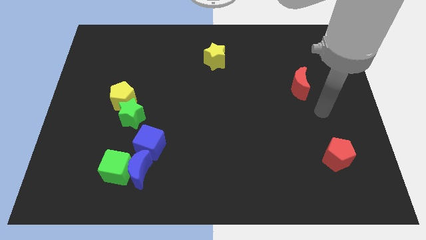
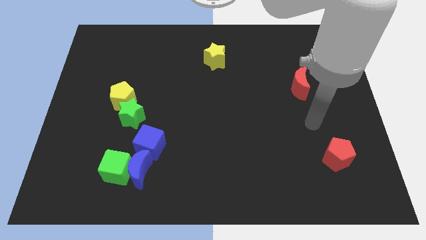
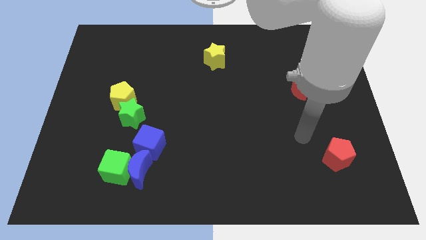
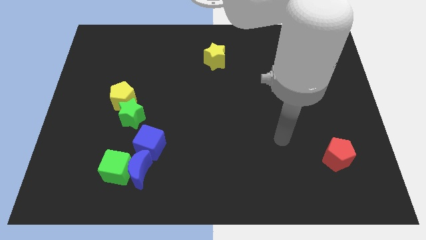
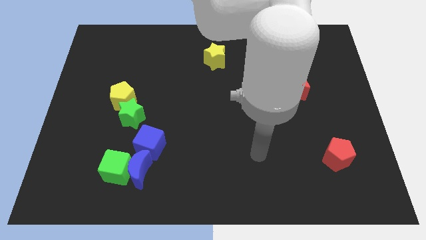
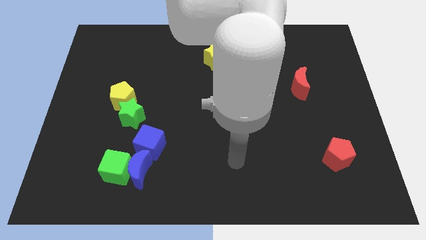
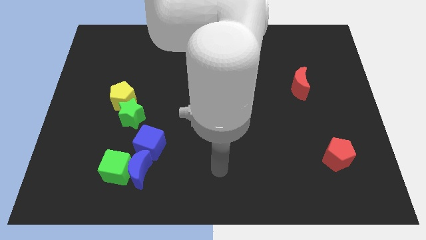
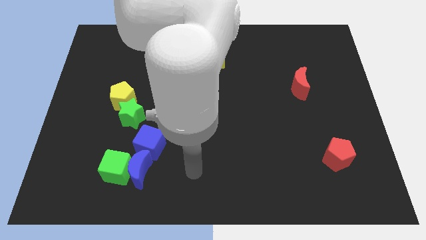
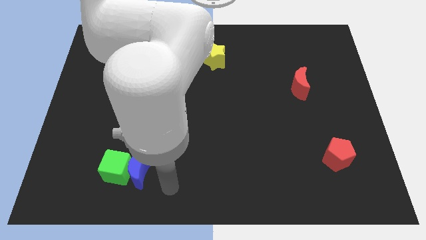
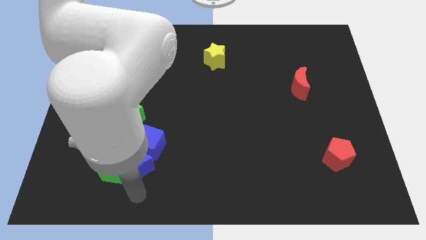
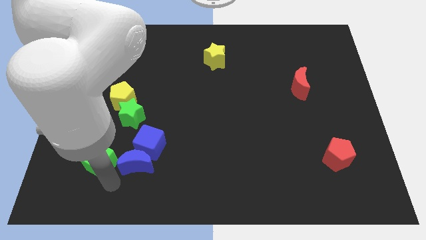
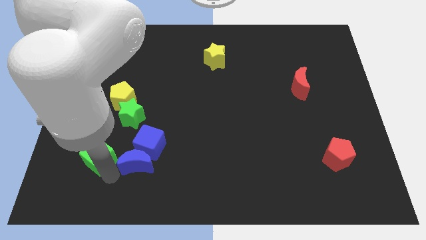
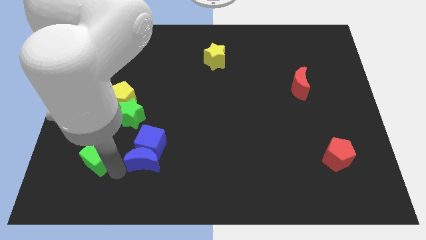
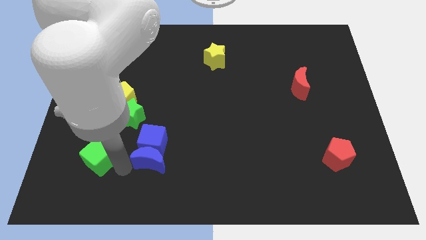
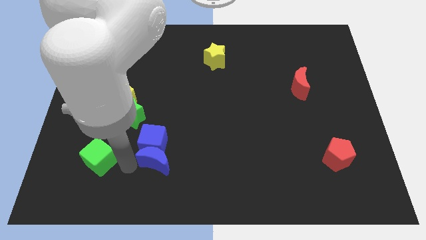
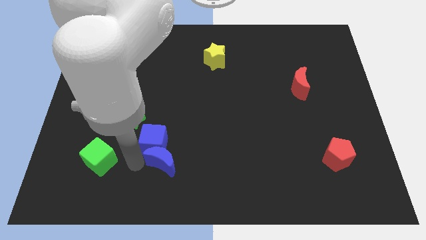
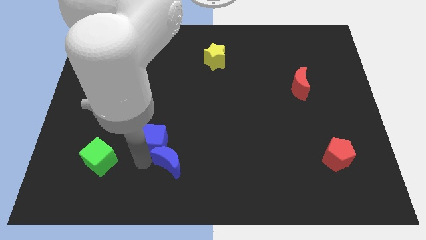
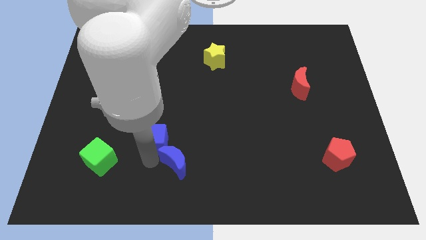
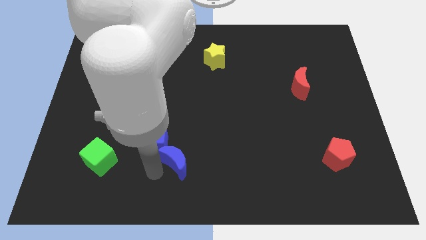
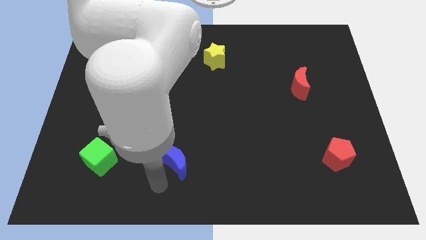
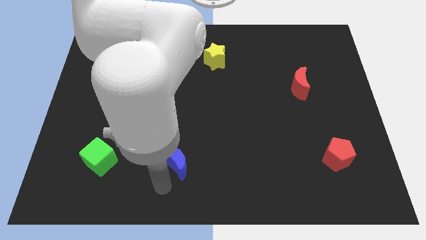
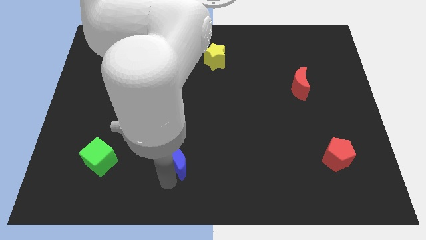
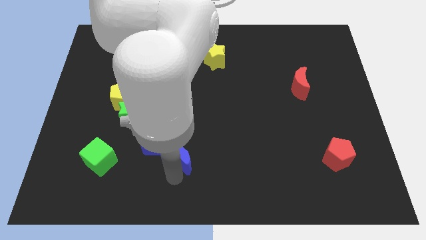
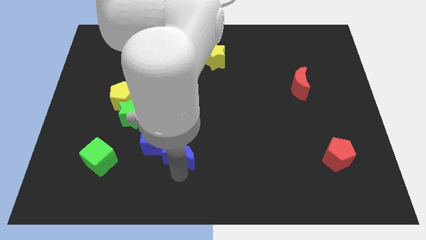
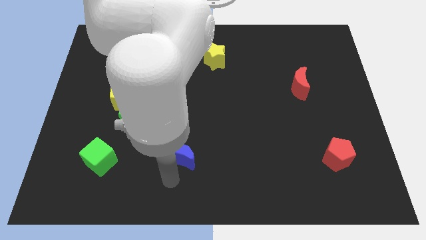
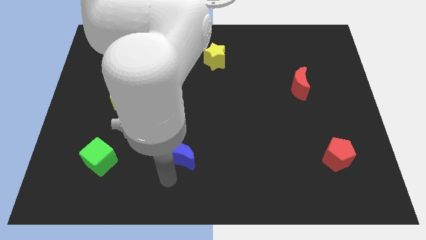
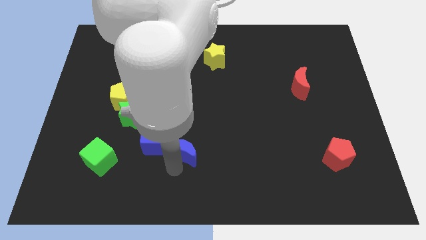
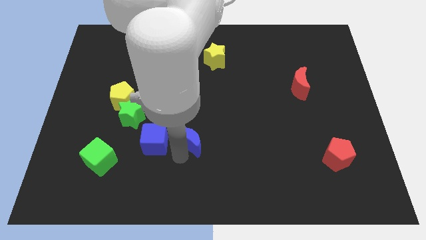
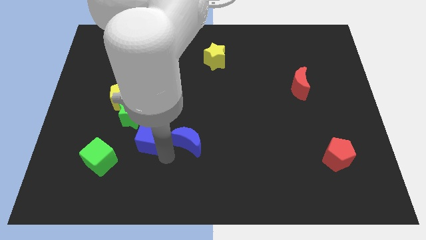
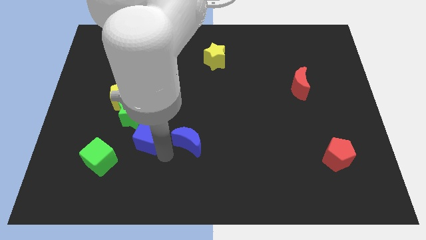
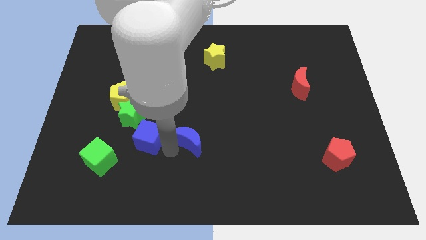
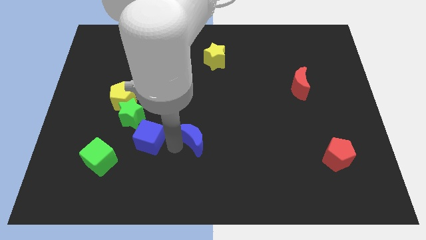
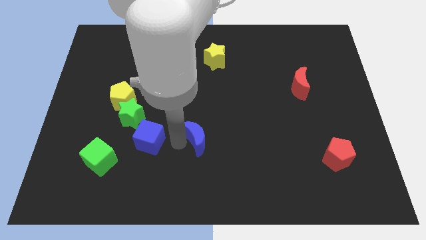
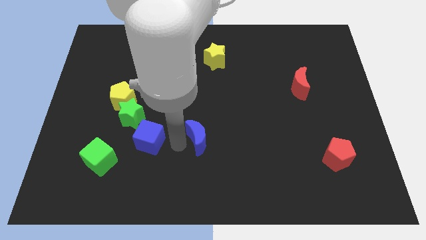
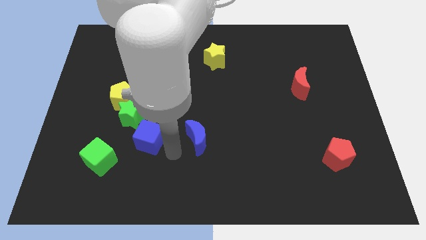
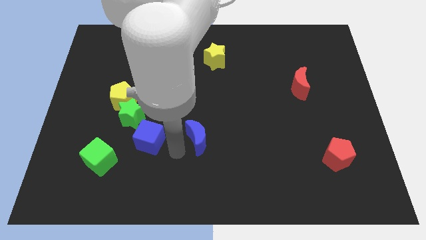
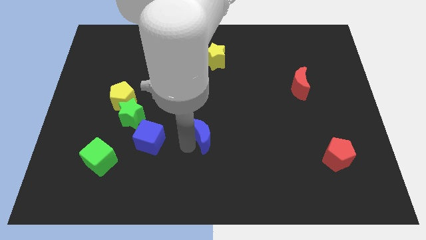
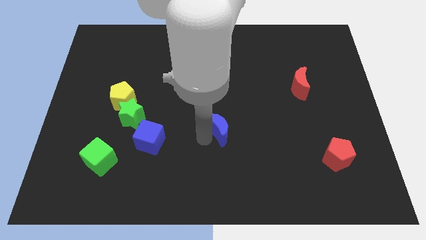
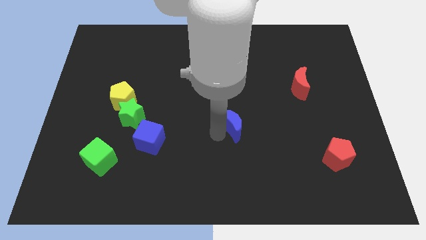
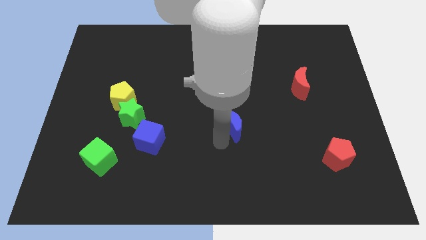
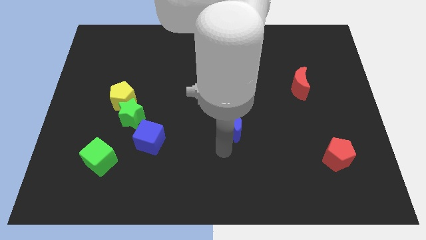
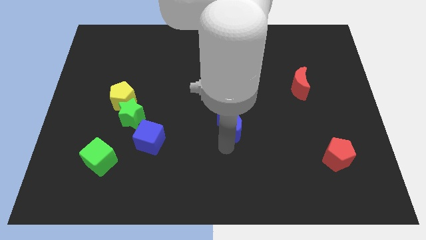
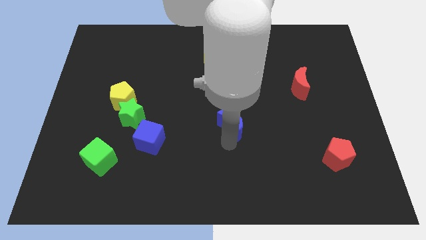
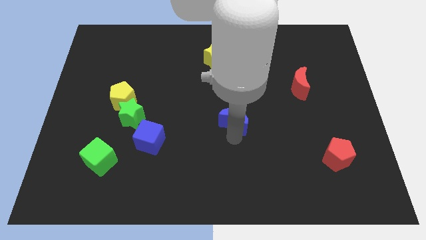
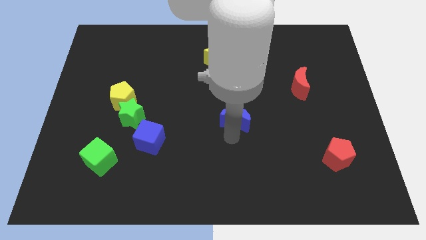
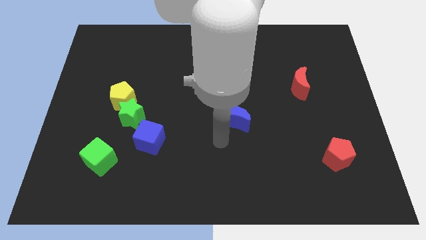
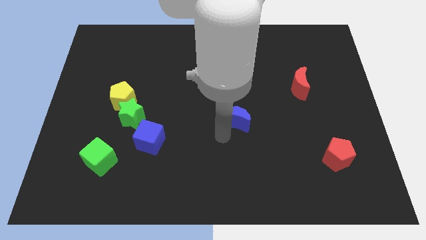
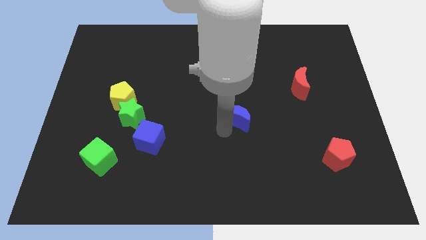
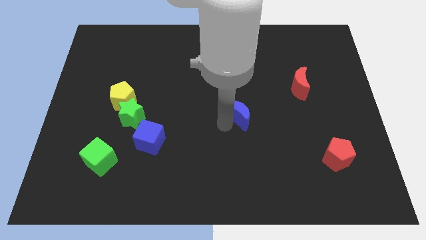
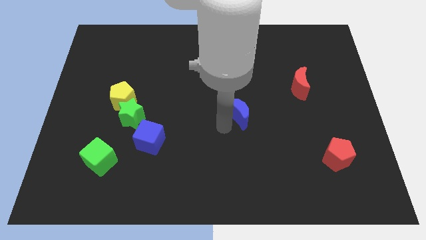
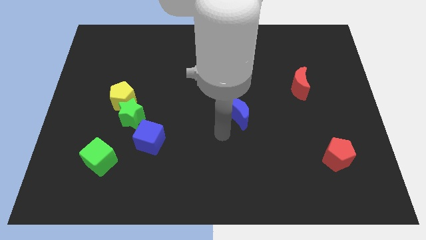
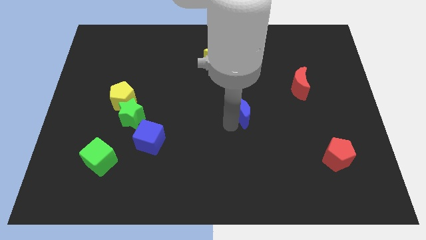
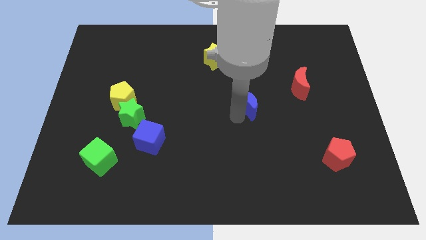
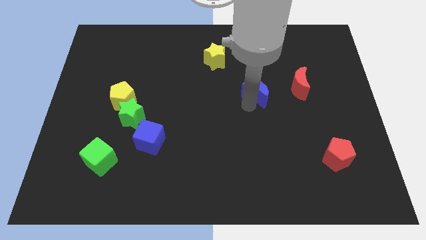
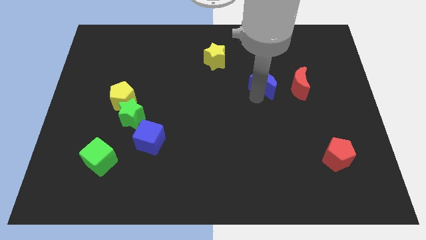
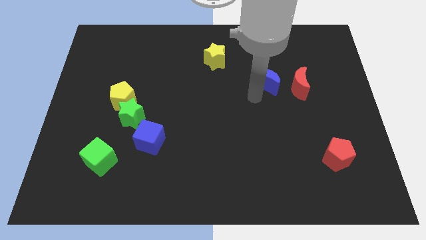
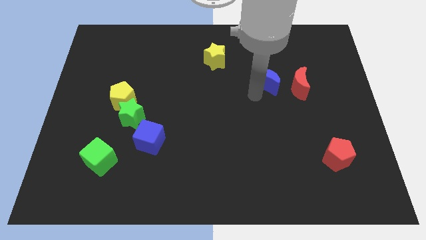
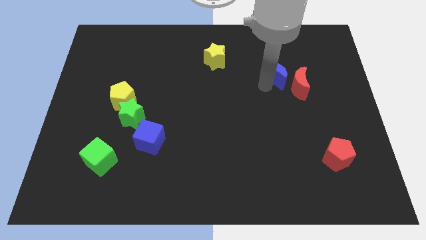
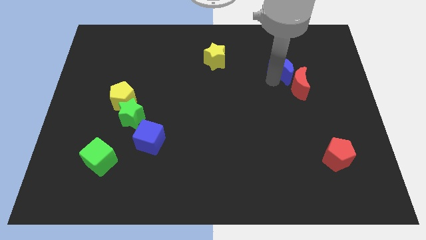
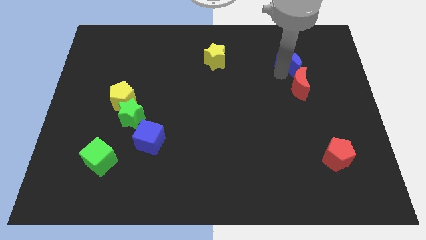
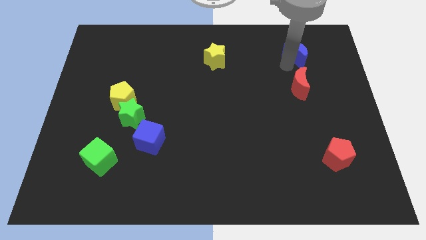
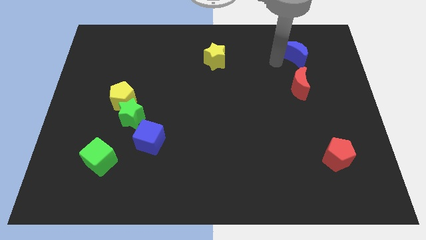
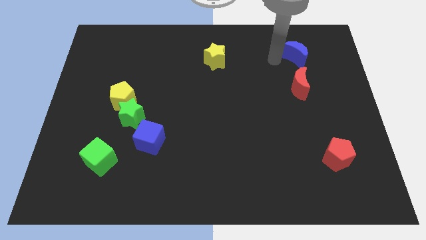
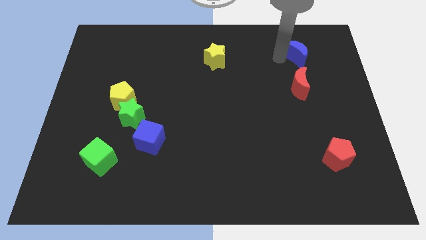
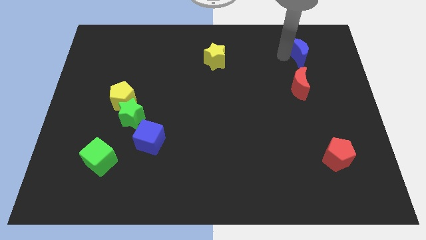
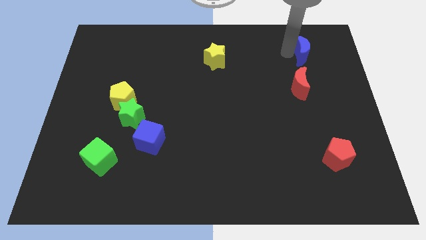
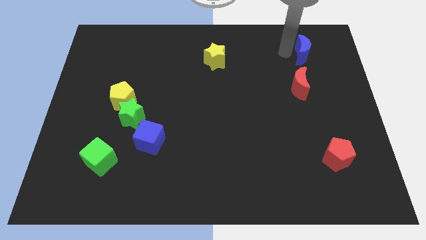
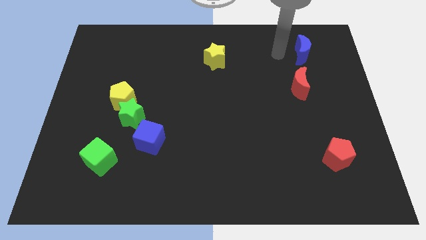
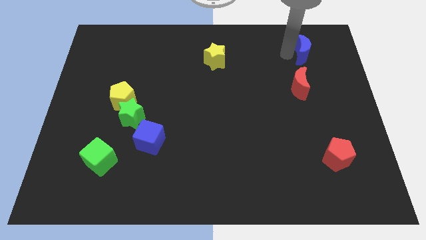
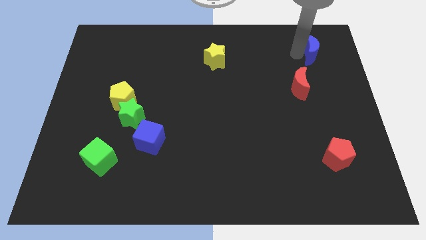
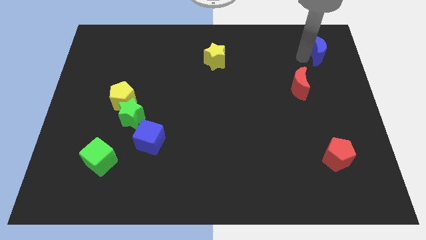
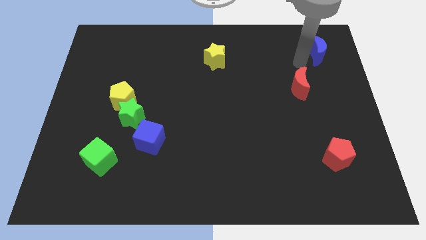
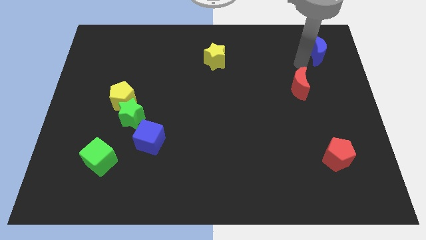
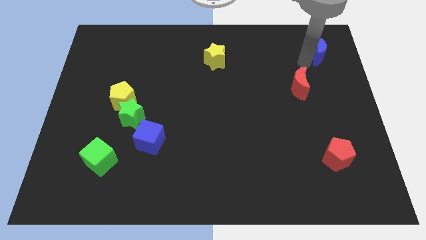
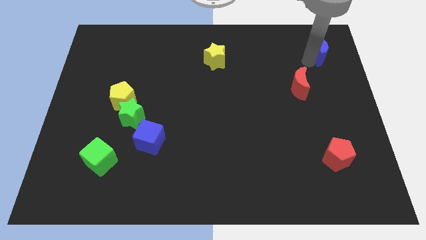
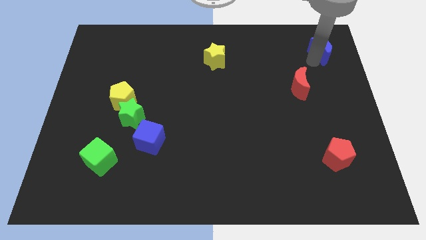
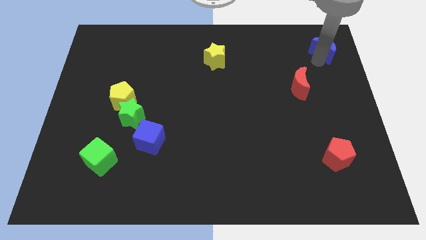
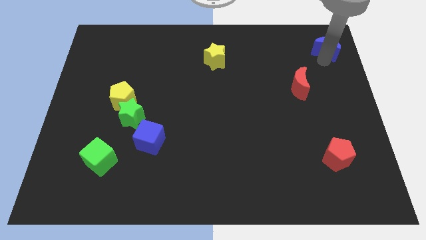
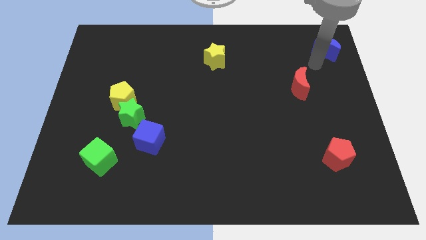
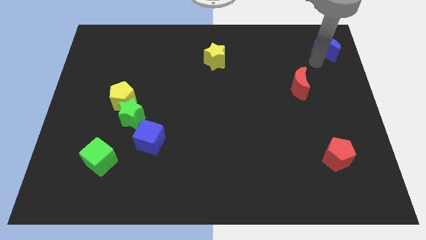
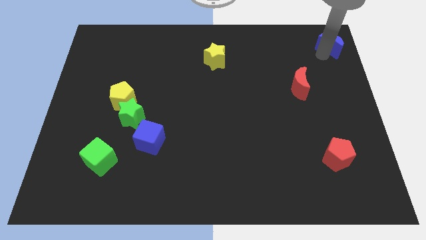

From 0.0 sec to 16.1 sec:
move the blue moon to the top right
